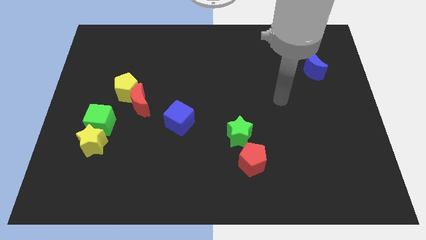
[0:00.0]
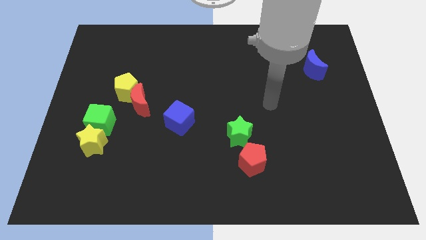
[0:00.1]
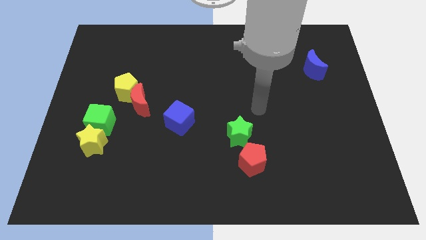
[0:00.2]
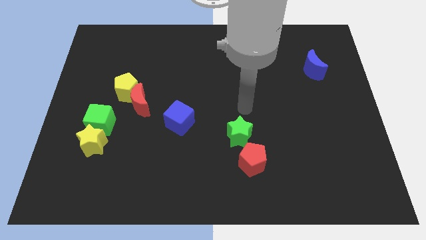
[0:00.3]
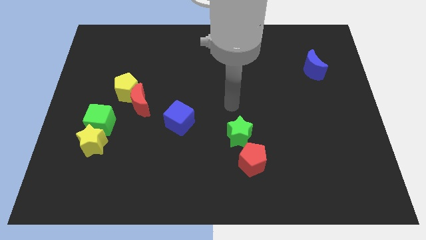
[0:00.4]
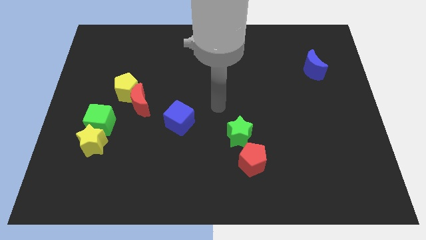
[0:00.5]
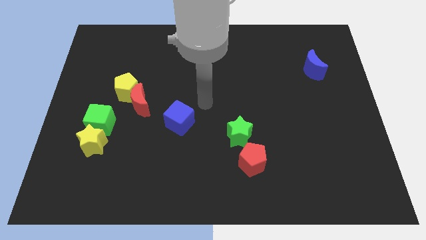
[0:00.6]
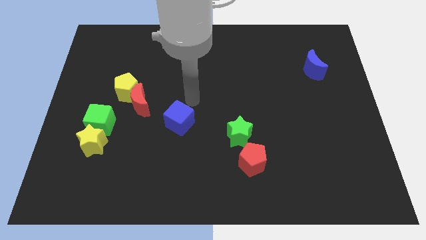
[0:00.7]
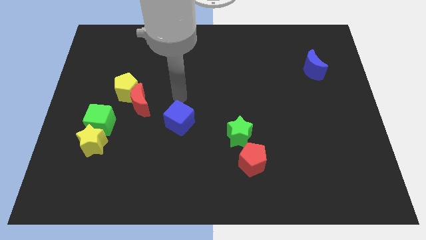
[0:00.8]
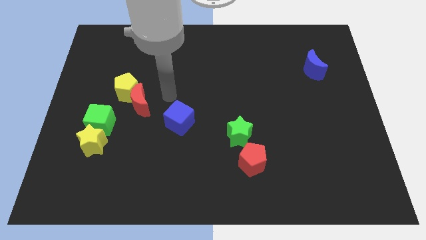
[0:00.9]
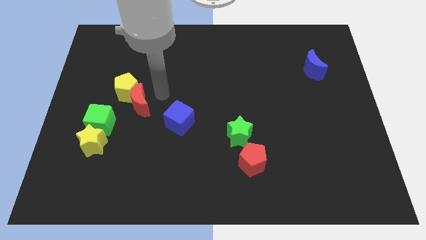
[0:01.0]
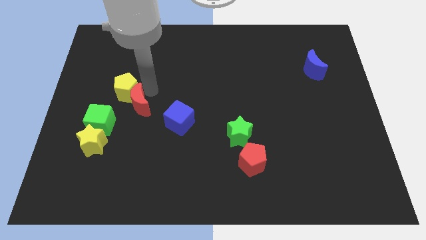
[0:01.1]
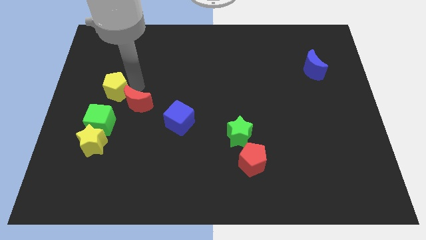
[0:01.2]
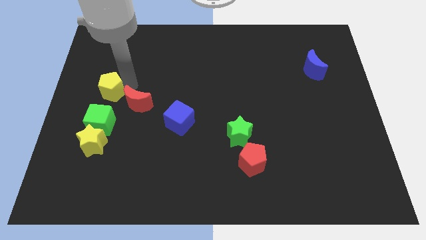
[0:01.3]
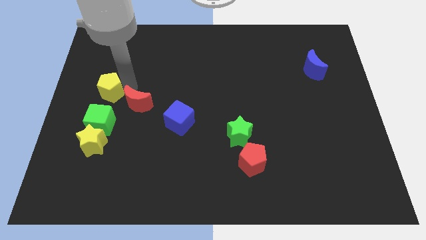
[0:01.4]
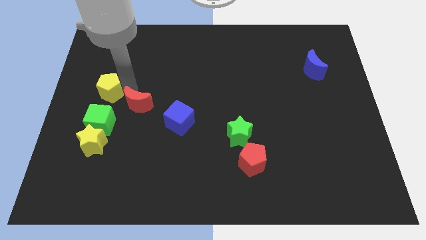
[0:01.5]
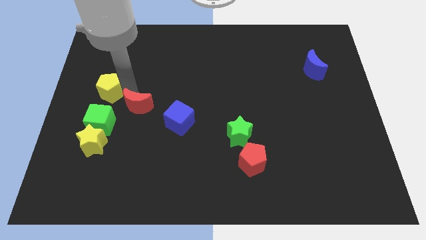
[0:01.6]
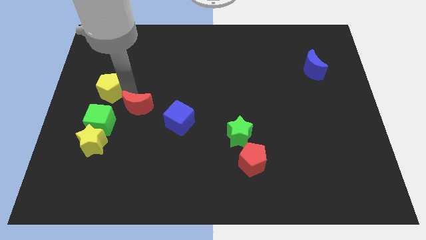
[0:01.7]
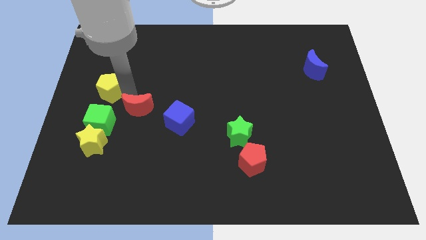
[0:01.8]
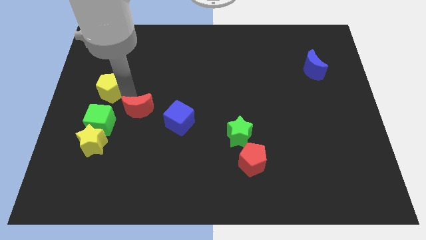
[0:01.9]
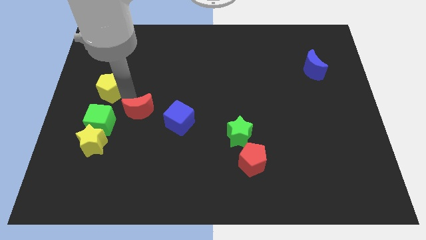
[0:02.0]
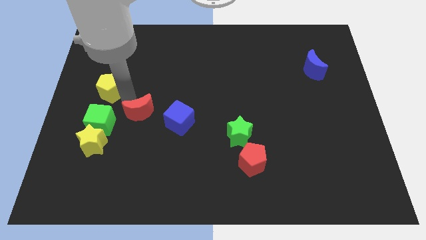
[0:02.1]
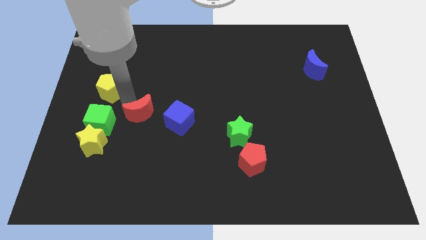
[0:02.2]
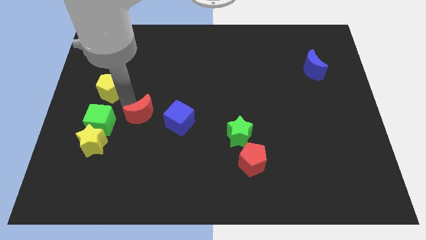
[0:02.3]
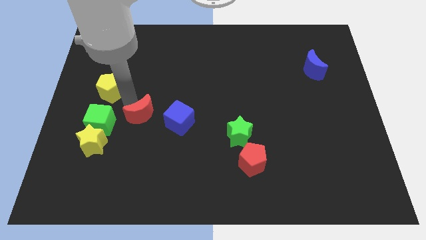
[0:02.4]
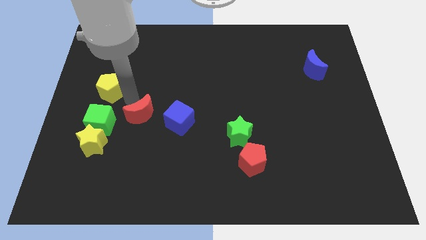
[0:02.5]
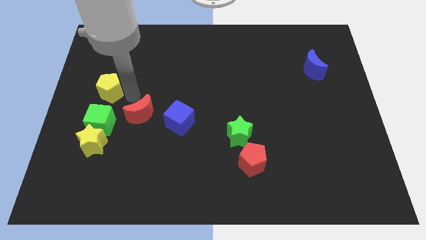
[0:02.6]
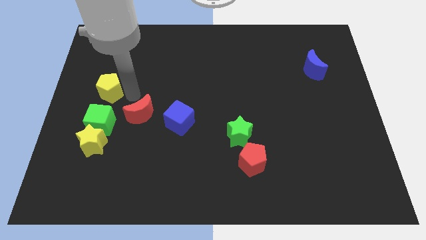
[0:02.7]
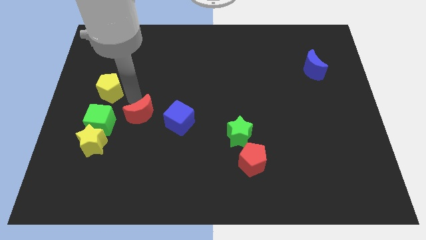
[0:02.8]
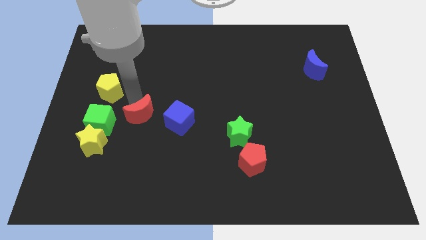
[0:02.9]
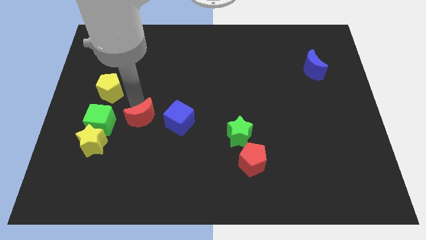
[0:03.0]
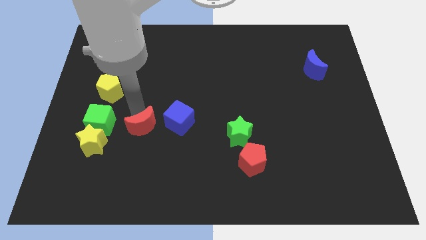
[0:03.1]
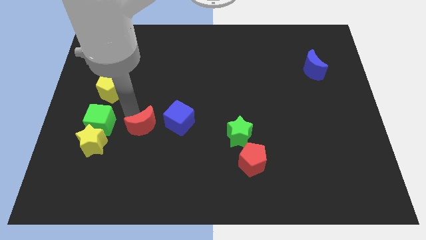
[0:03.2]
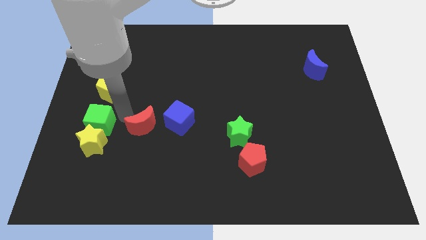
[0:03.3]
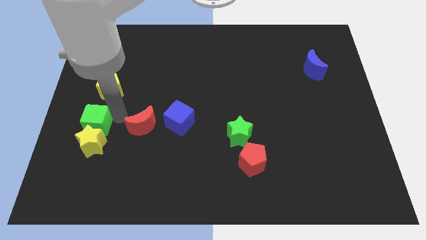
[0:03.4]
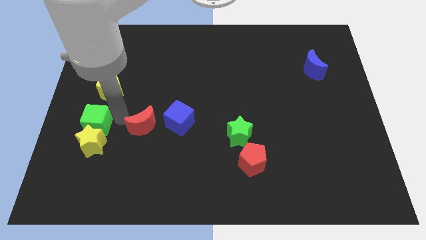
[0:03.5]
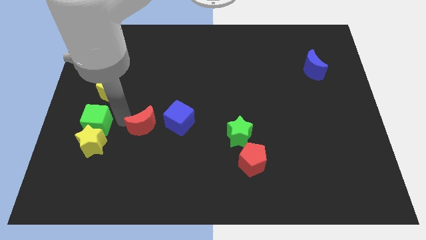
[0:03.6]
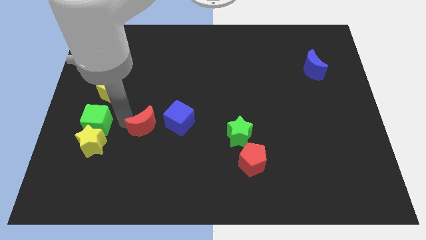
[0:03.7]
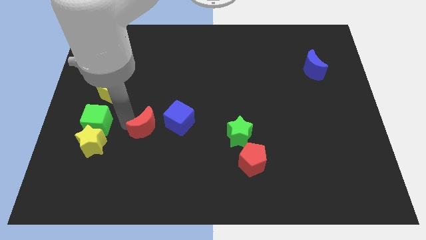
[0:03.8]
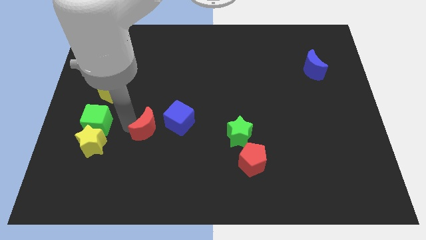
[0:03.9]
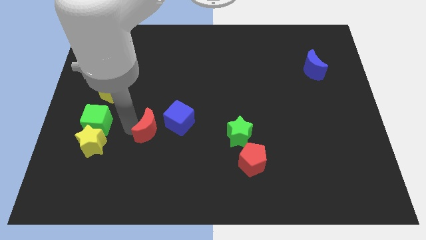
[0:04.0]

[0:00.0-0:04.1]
slide the red moon slightly down and to the right diagonally

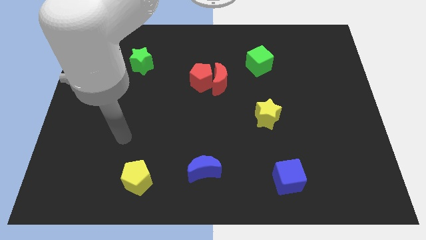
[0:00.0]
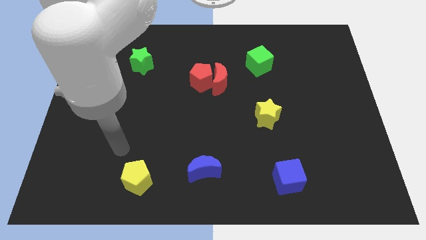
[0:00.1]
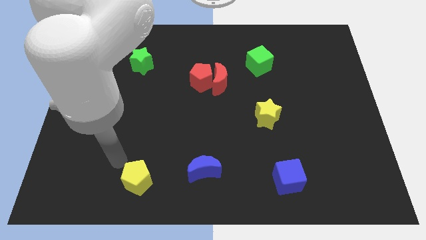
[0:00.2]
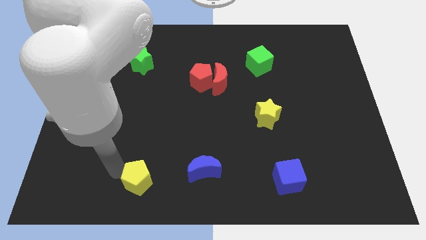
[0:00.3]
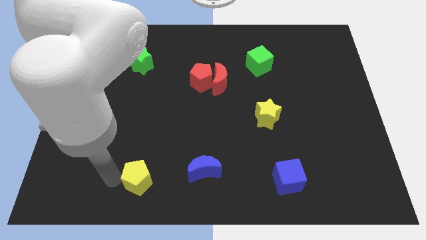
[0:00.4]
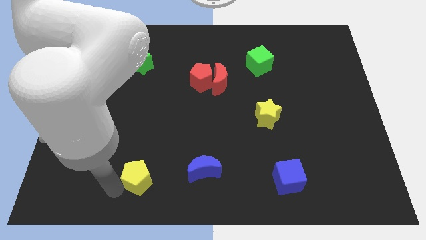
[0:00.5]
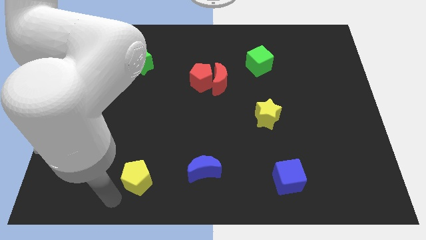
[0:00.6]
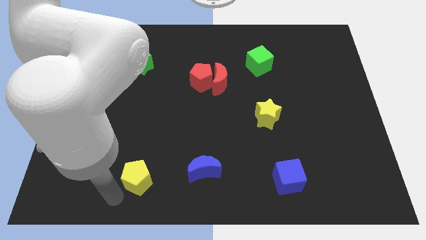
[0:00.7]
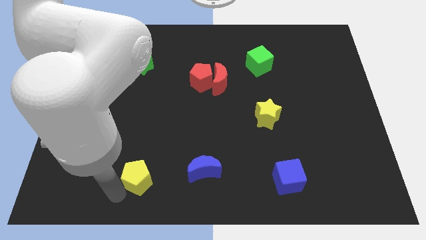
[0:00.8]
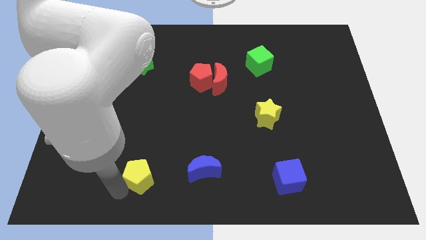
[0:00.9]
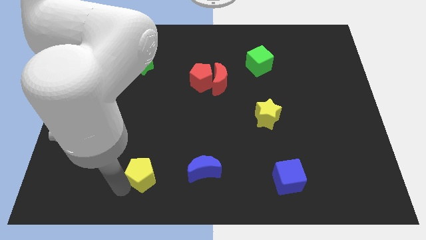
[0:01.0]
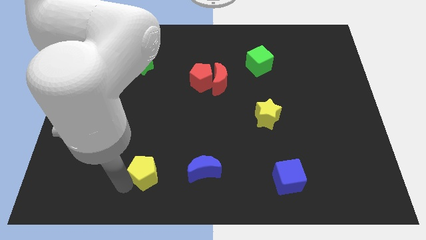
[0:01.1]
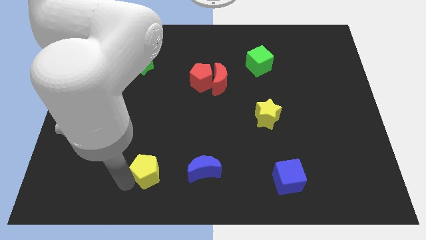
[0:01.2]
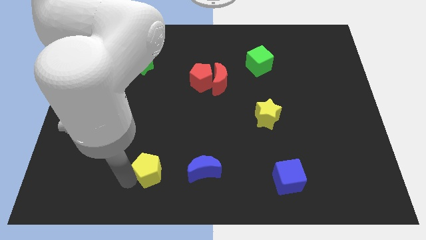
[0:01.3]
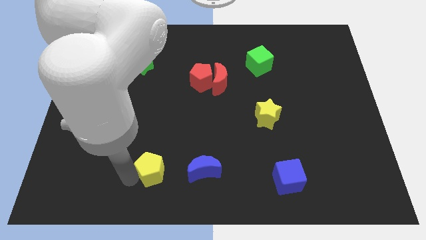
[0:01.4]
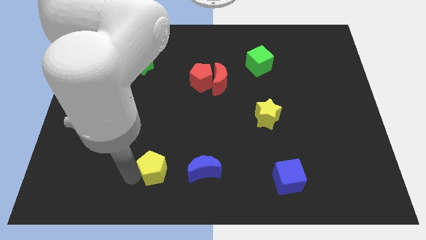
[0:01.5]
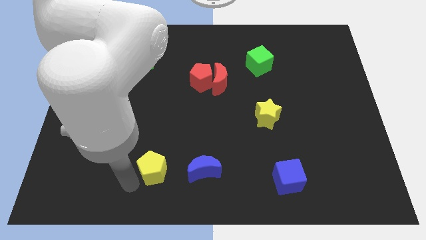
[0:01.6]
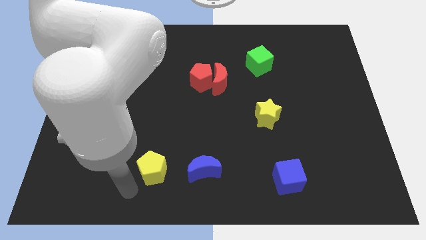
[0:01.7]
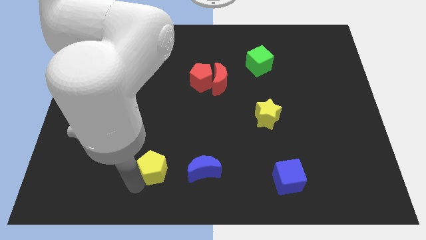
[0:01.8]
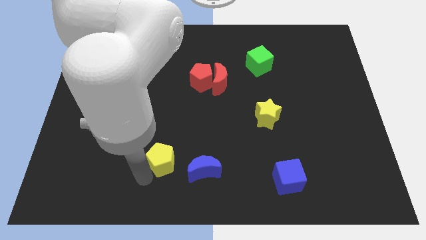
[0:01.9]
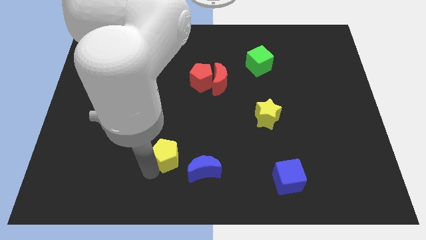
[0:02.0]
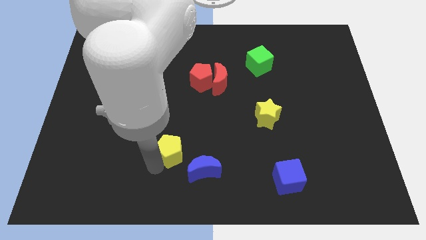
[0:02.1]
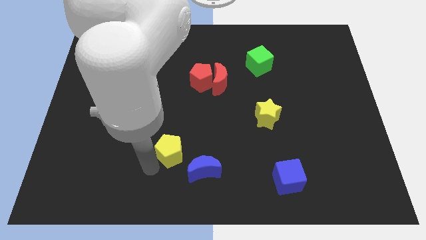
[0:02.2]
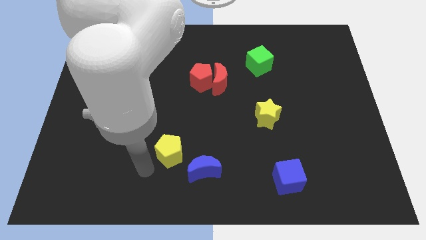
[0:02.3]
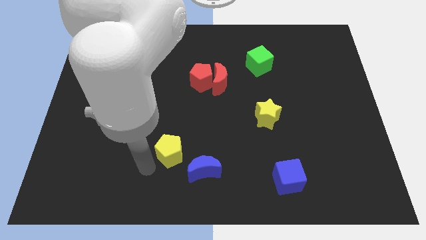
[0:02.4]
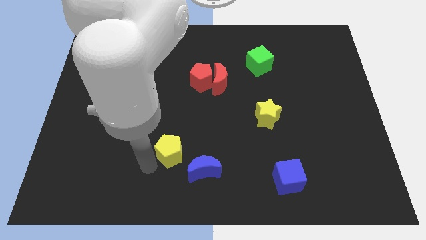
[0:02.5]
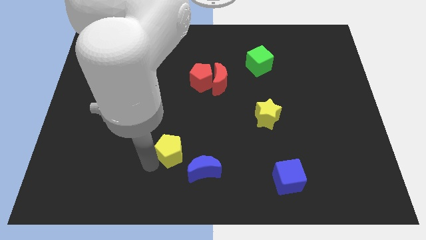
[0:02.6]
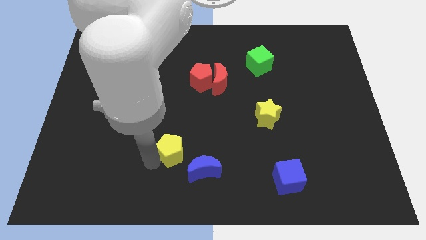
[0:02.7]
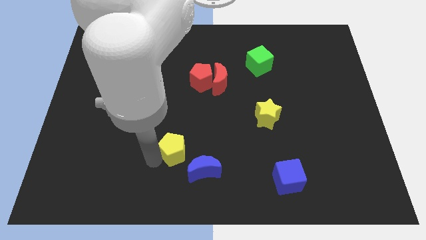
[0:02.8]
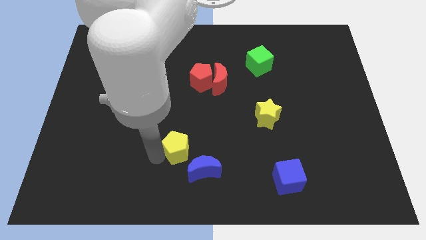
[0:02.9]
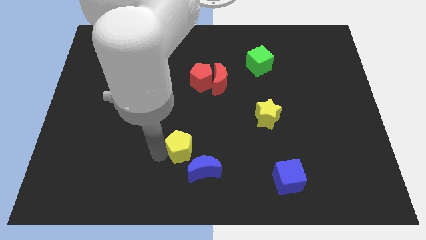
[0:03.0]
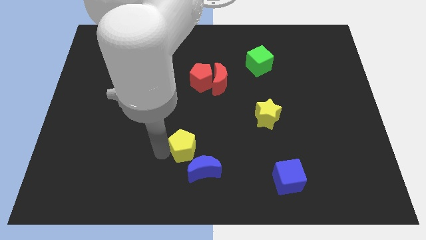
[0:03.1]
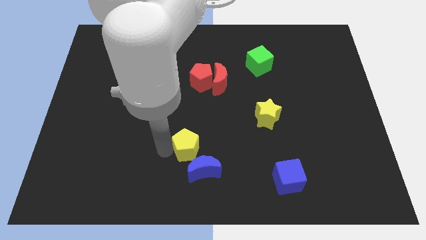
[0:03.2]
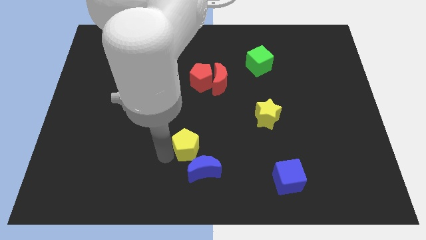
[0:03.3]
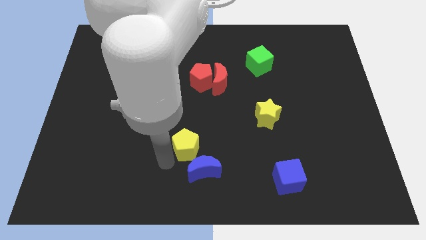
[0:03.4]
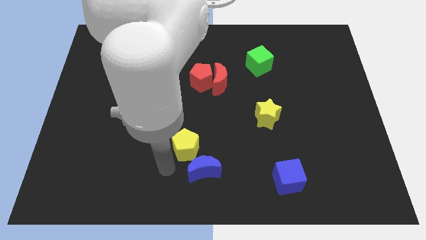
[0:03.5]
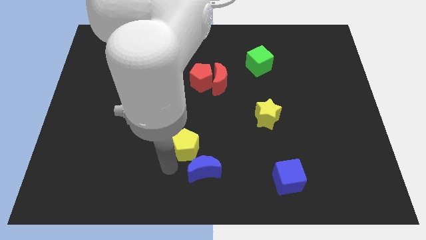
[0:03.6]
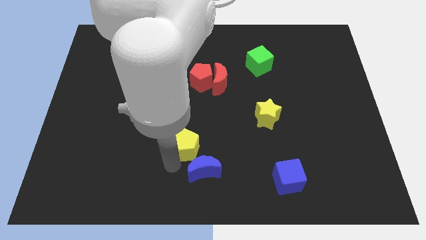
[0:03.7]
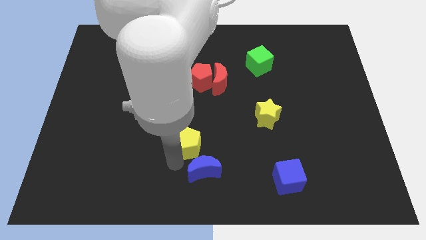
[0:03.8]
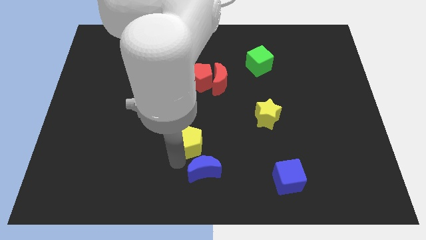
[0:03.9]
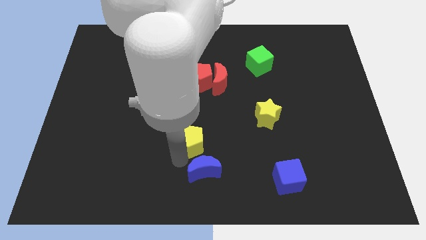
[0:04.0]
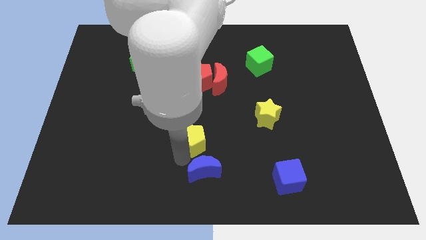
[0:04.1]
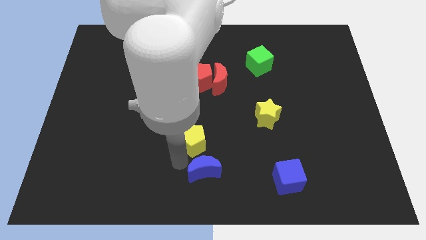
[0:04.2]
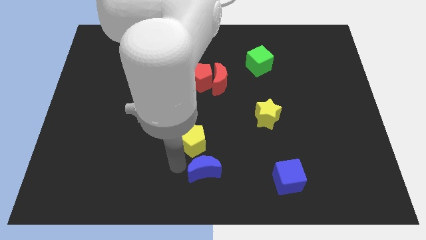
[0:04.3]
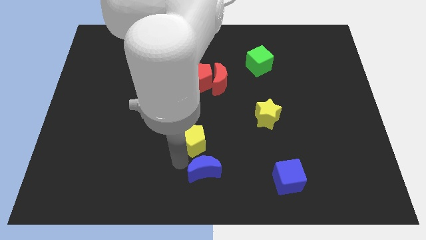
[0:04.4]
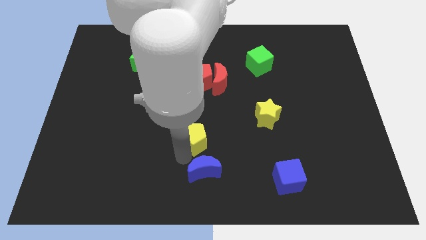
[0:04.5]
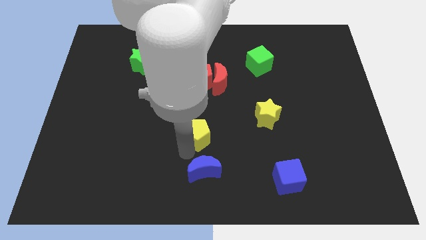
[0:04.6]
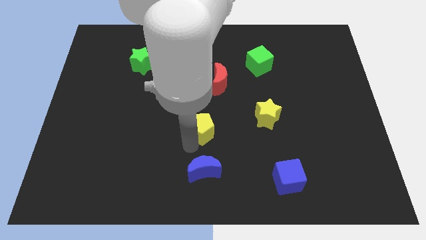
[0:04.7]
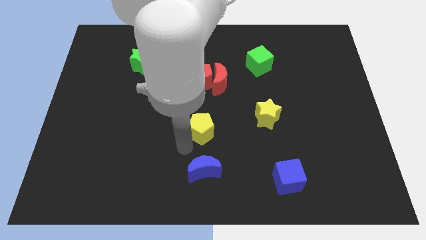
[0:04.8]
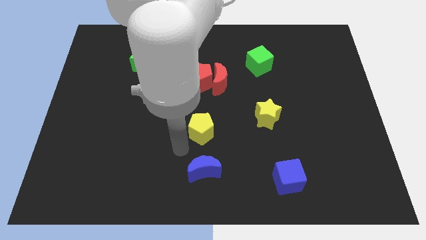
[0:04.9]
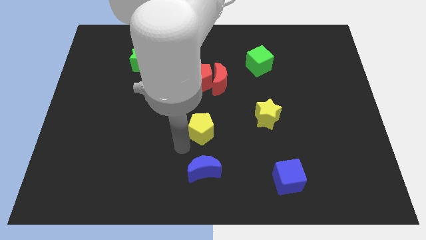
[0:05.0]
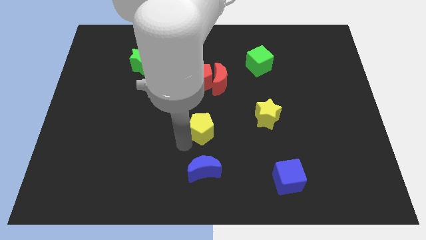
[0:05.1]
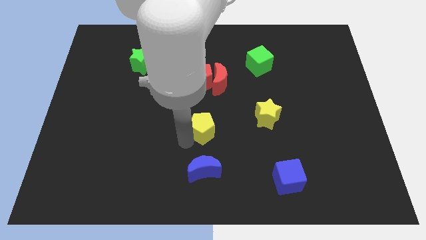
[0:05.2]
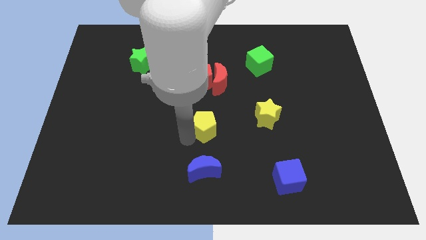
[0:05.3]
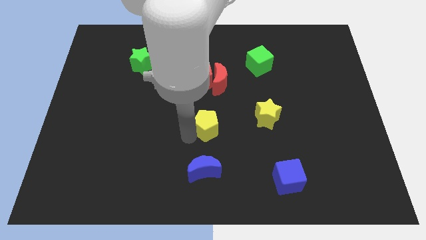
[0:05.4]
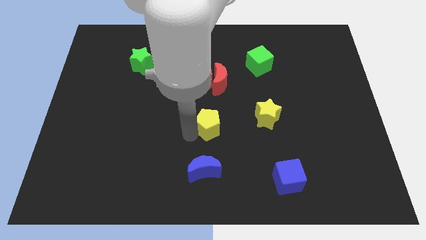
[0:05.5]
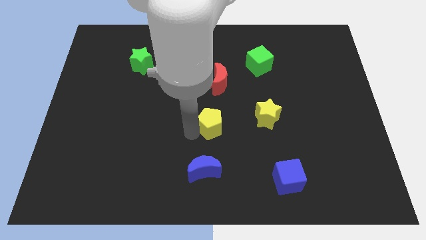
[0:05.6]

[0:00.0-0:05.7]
push the yellow pentagon upwards and then right
